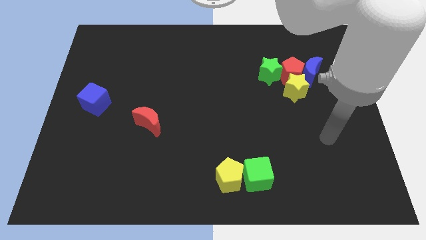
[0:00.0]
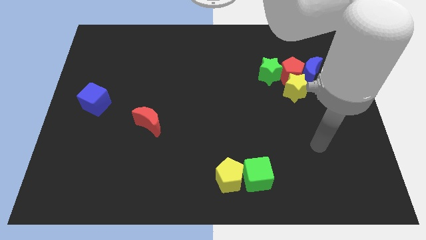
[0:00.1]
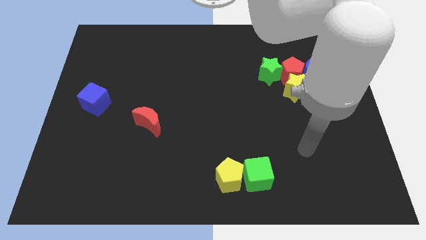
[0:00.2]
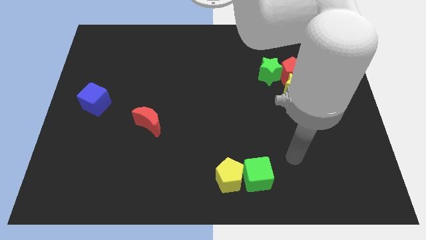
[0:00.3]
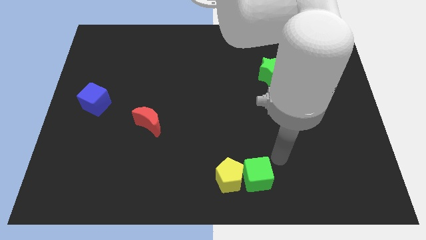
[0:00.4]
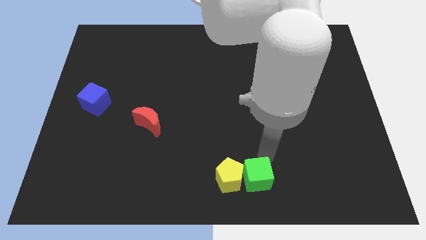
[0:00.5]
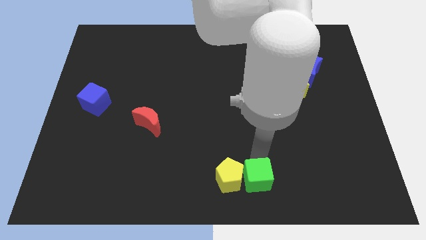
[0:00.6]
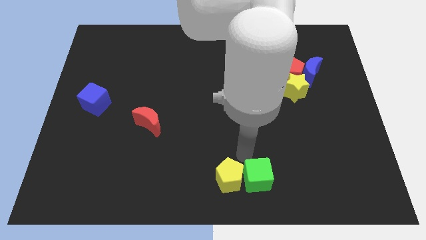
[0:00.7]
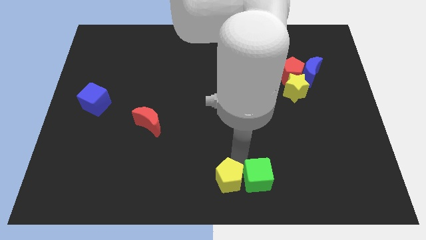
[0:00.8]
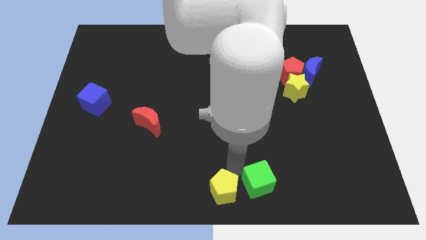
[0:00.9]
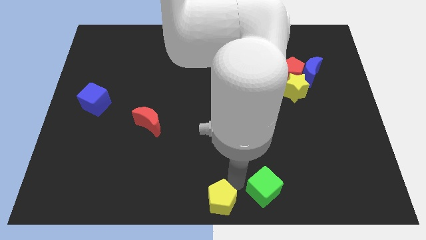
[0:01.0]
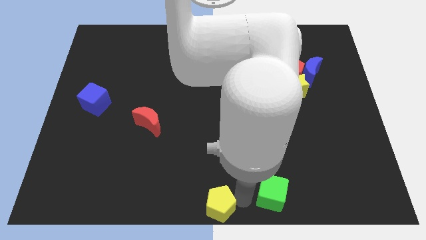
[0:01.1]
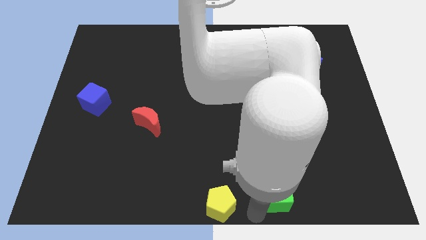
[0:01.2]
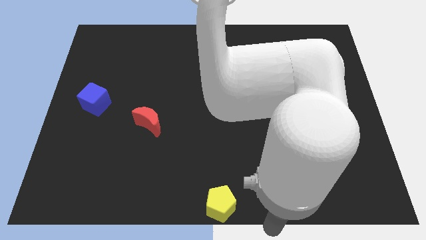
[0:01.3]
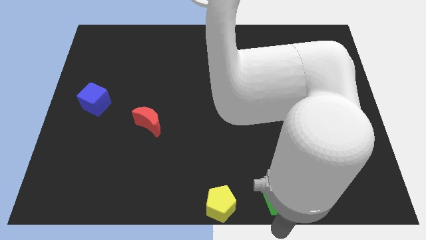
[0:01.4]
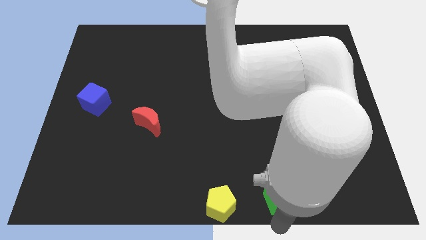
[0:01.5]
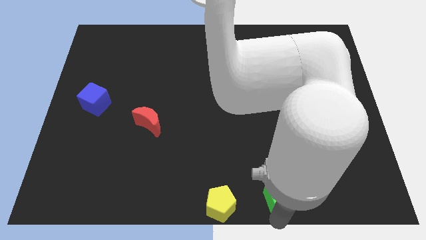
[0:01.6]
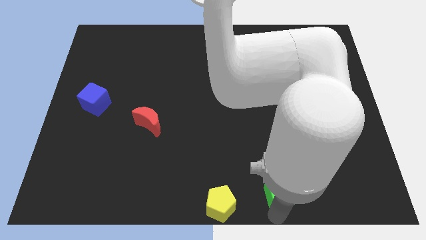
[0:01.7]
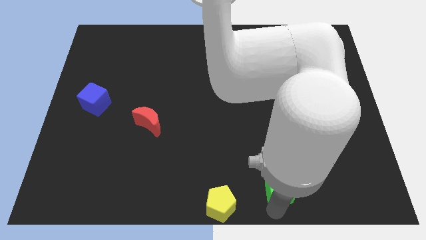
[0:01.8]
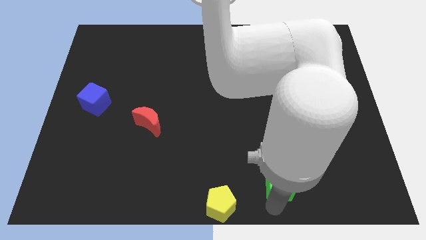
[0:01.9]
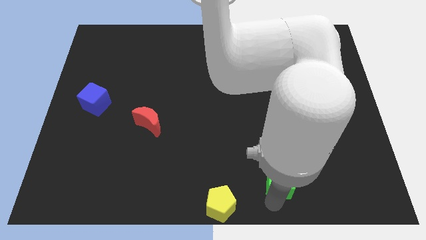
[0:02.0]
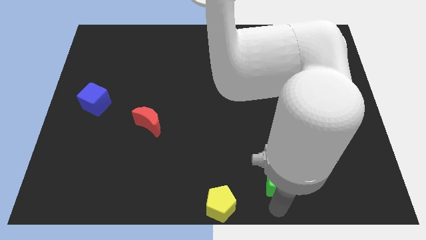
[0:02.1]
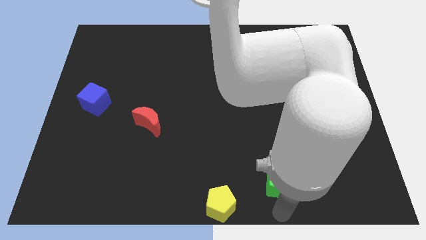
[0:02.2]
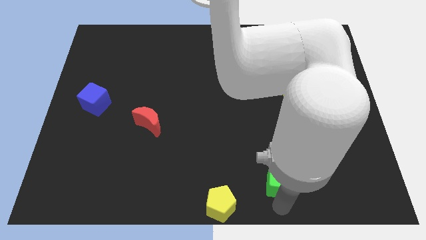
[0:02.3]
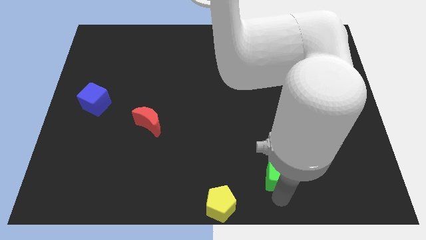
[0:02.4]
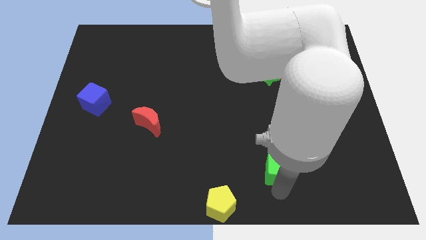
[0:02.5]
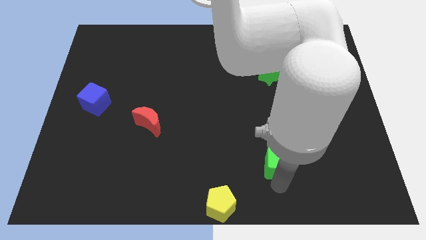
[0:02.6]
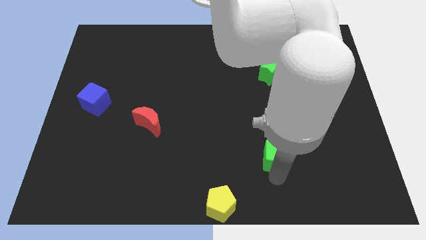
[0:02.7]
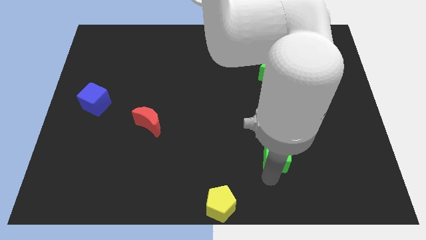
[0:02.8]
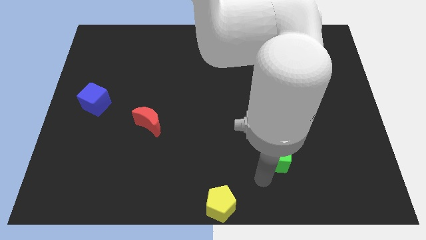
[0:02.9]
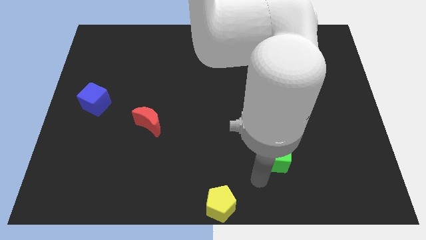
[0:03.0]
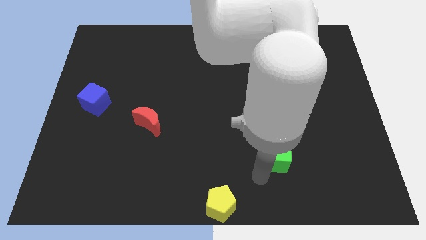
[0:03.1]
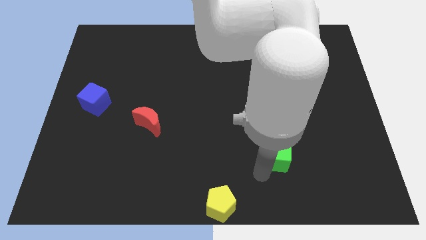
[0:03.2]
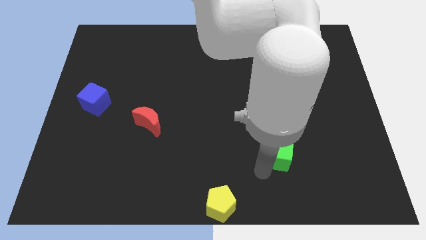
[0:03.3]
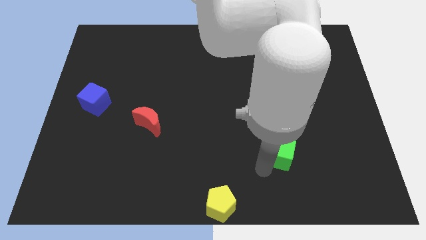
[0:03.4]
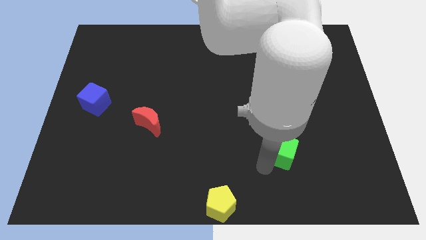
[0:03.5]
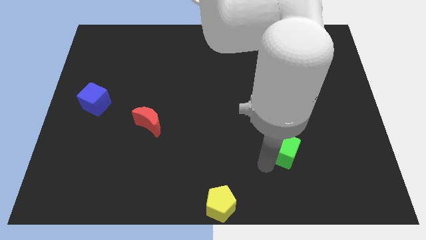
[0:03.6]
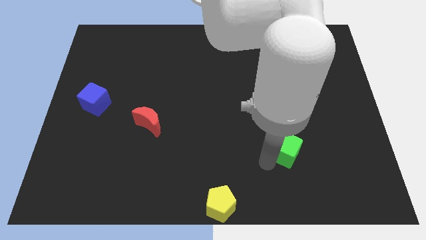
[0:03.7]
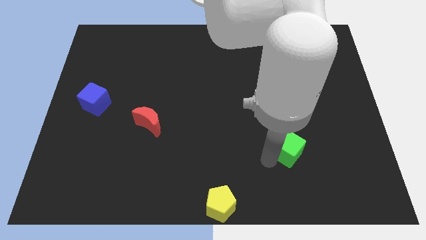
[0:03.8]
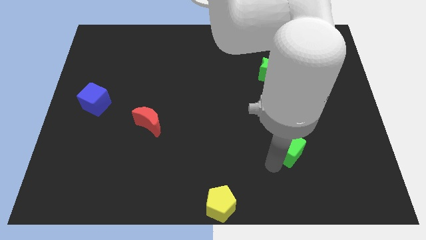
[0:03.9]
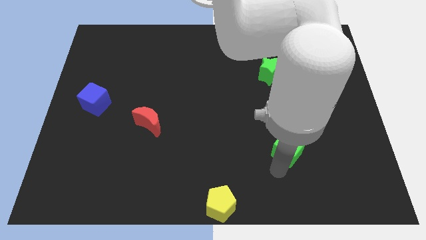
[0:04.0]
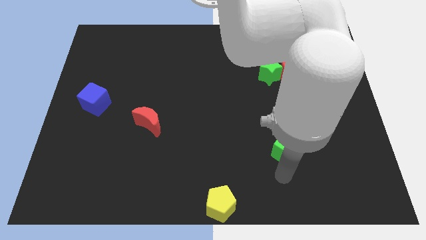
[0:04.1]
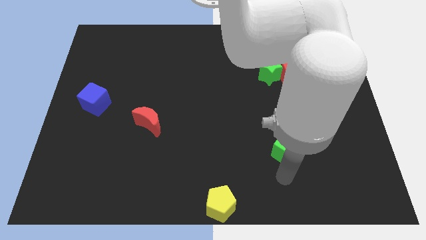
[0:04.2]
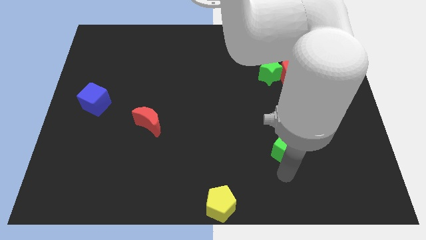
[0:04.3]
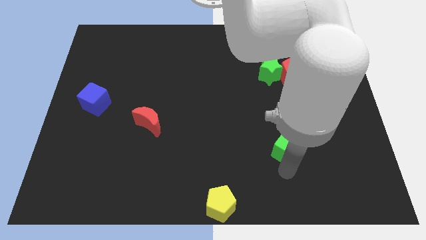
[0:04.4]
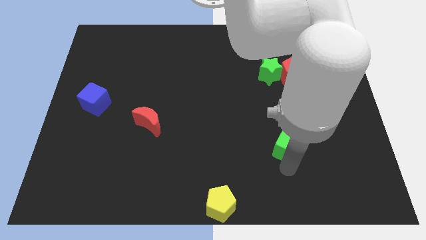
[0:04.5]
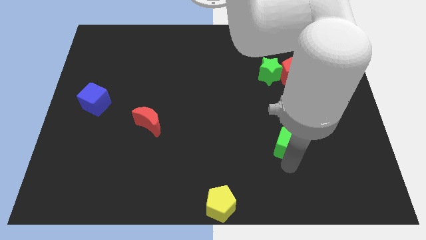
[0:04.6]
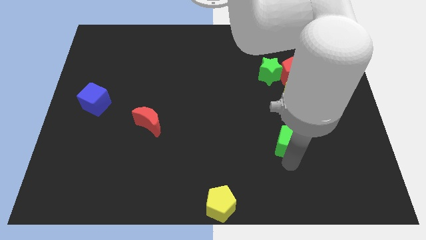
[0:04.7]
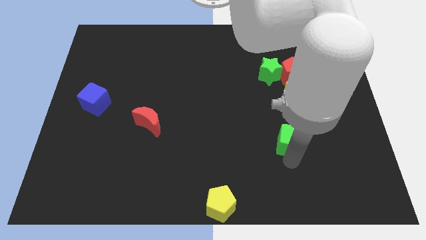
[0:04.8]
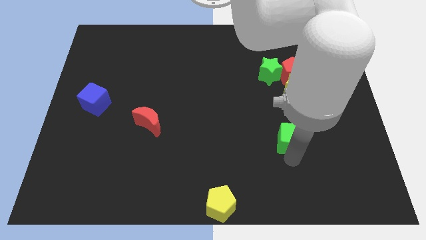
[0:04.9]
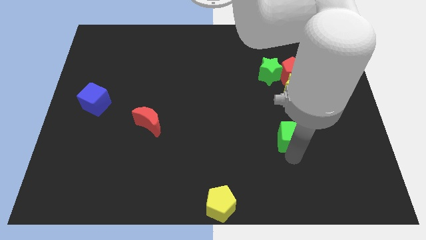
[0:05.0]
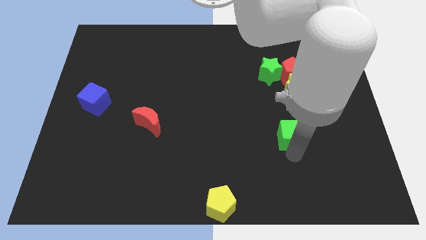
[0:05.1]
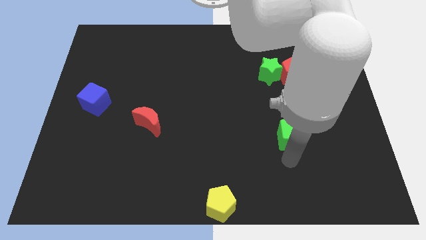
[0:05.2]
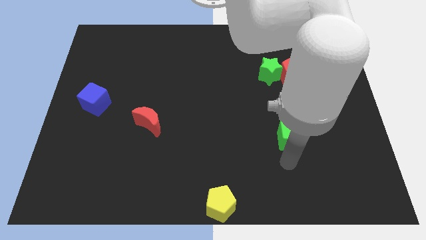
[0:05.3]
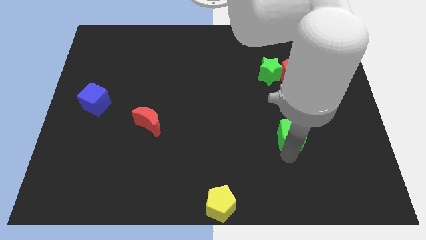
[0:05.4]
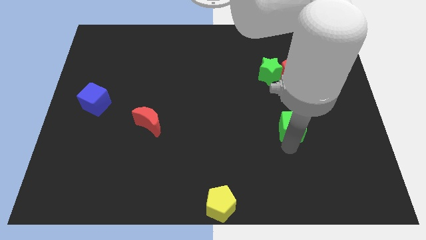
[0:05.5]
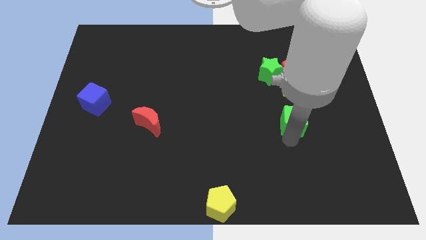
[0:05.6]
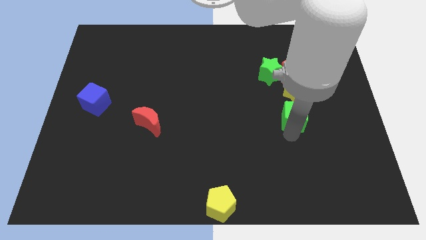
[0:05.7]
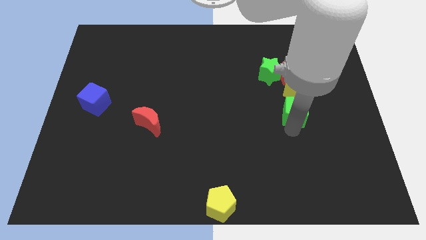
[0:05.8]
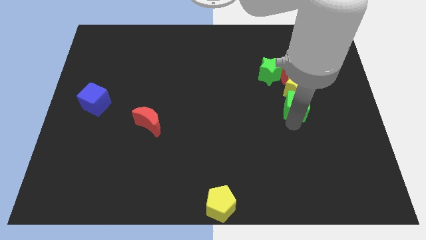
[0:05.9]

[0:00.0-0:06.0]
slide the green cube close to the yellow star
